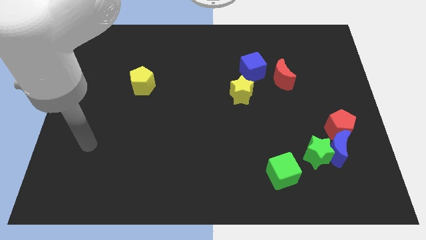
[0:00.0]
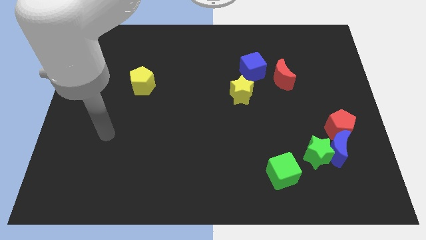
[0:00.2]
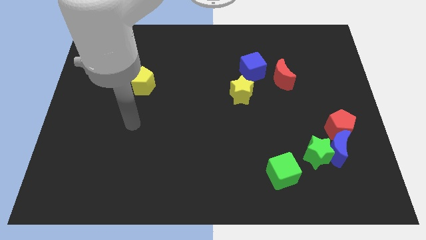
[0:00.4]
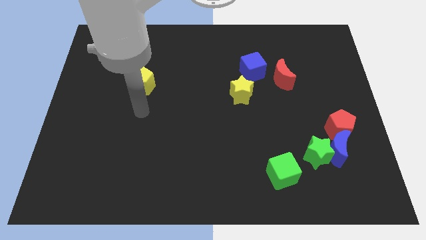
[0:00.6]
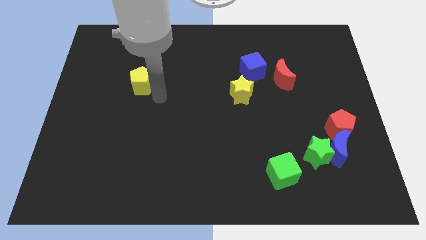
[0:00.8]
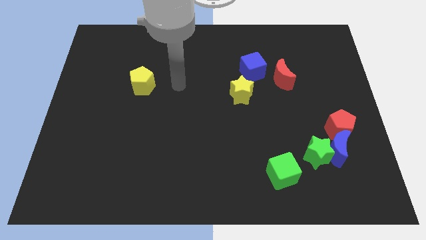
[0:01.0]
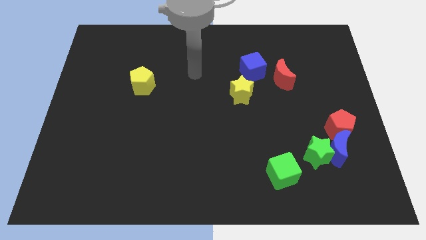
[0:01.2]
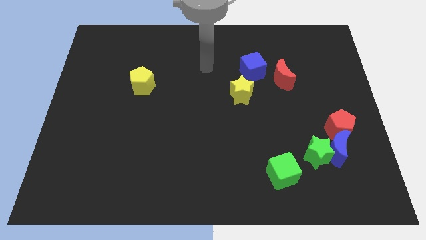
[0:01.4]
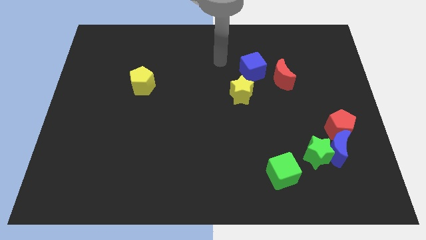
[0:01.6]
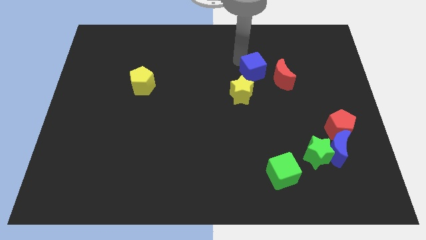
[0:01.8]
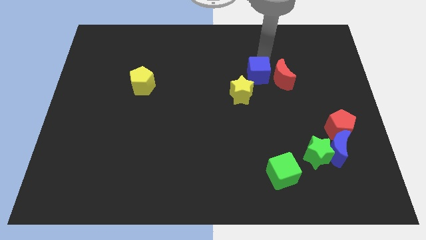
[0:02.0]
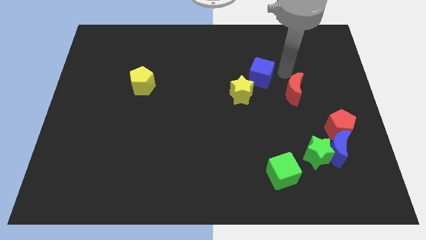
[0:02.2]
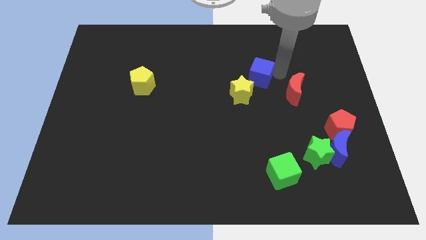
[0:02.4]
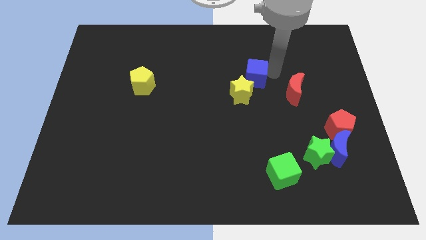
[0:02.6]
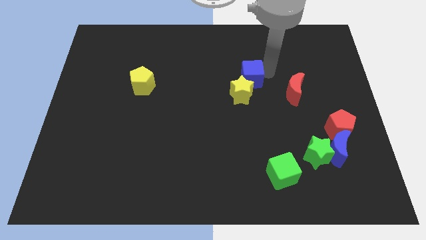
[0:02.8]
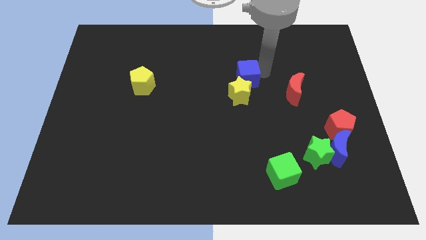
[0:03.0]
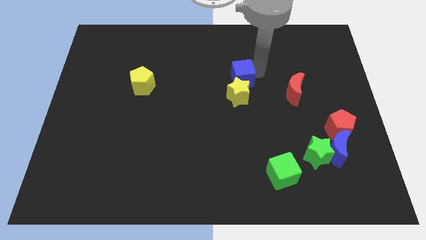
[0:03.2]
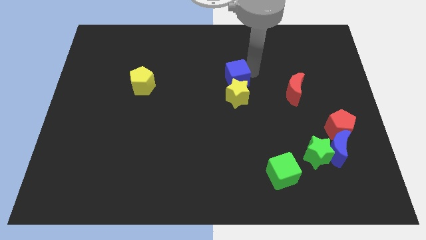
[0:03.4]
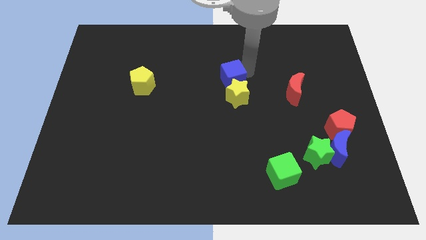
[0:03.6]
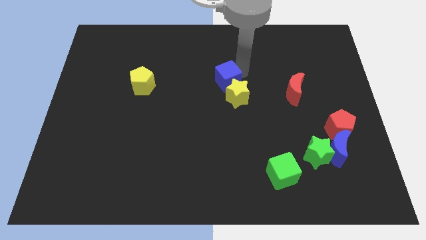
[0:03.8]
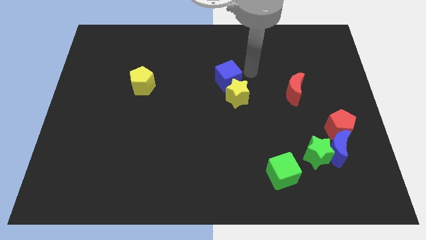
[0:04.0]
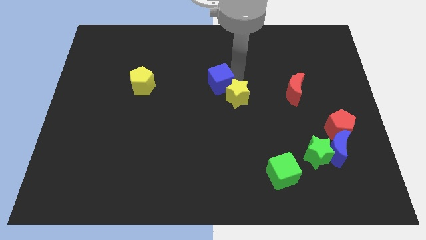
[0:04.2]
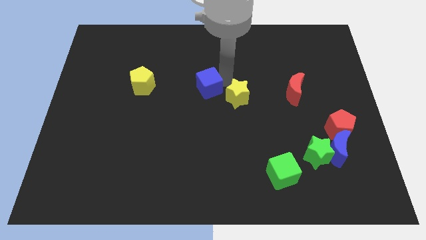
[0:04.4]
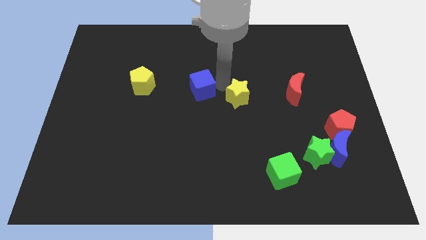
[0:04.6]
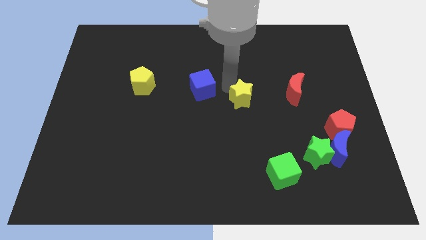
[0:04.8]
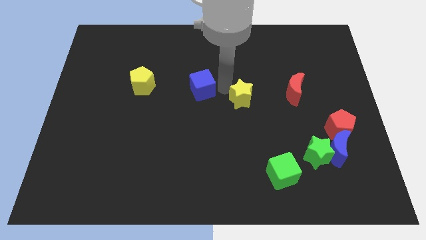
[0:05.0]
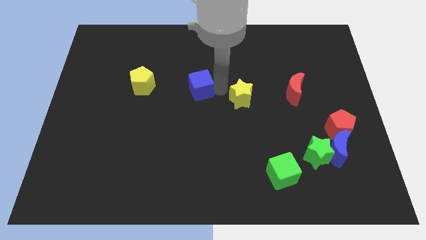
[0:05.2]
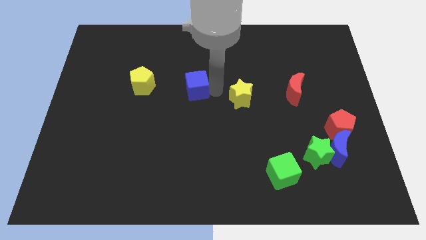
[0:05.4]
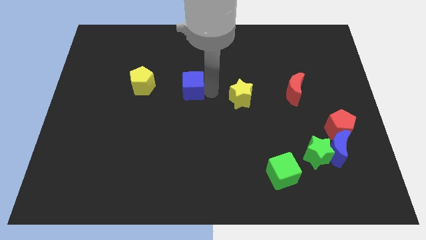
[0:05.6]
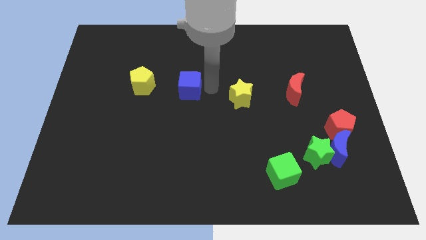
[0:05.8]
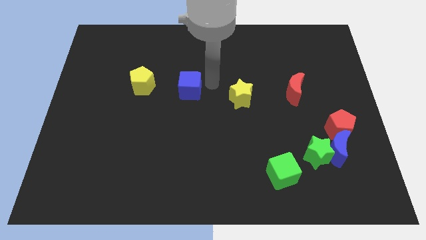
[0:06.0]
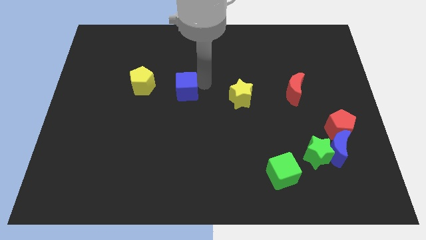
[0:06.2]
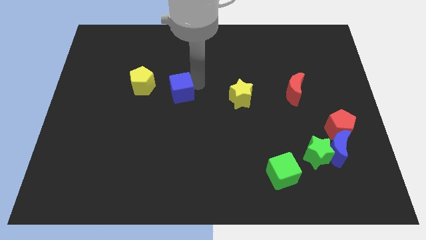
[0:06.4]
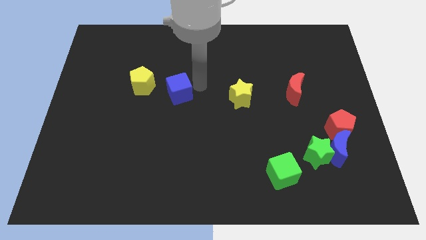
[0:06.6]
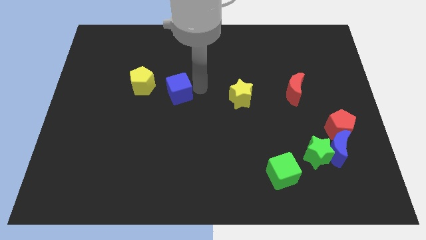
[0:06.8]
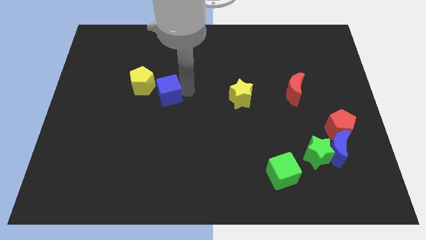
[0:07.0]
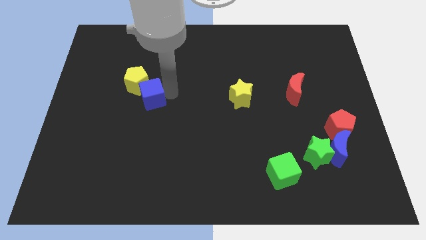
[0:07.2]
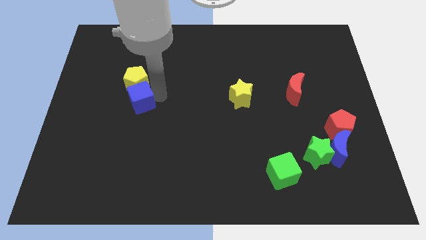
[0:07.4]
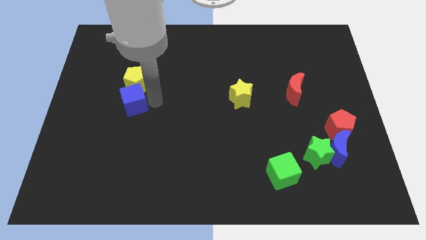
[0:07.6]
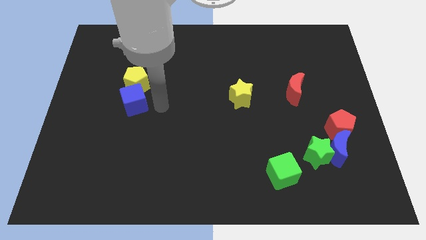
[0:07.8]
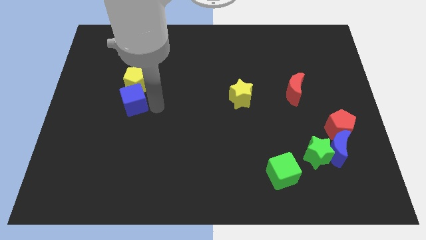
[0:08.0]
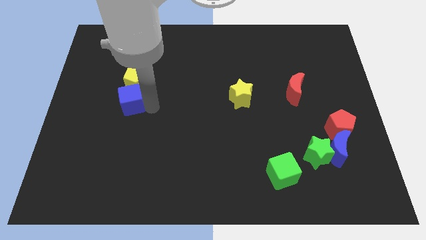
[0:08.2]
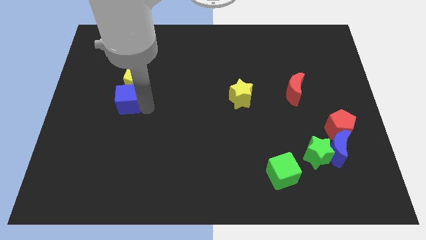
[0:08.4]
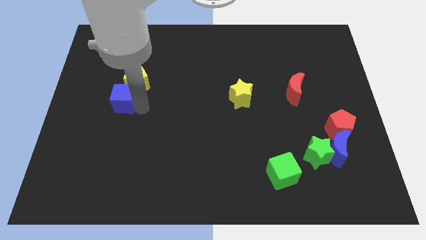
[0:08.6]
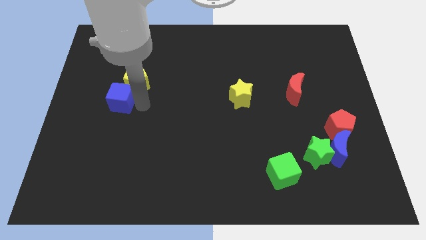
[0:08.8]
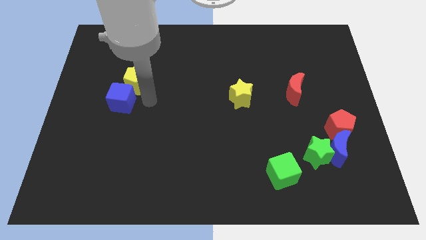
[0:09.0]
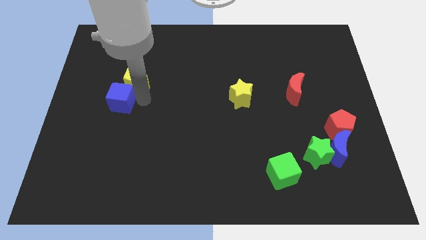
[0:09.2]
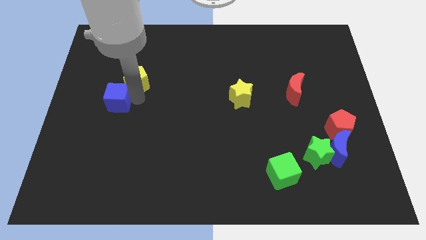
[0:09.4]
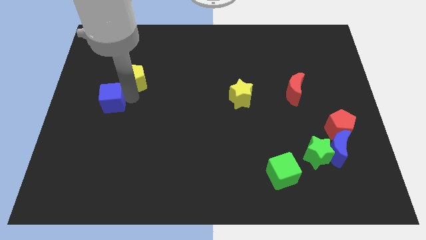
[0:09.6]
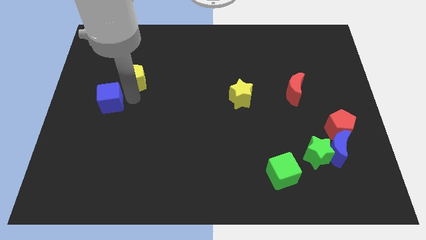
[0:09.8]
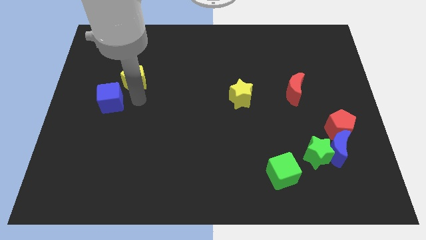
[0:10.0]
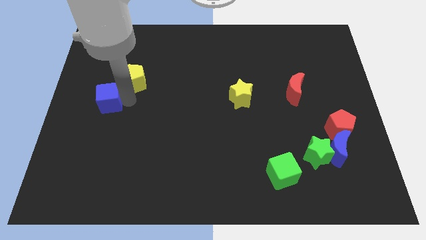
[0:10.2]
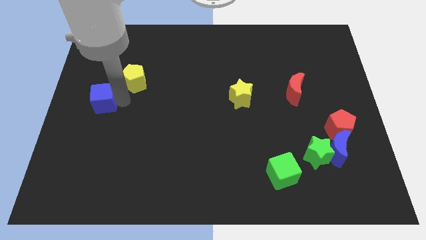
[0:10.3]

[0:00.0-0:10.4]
slide the blue cube to the center left

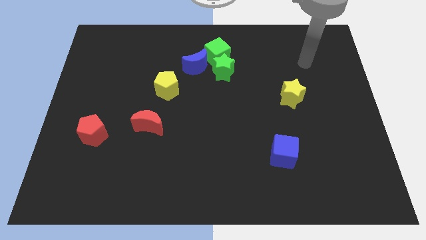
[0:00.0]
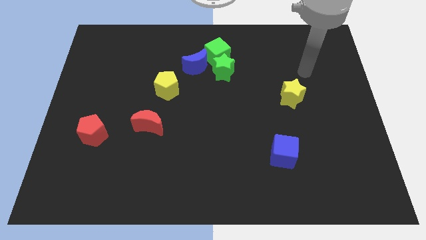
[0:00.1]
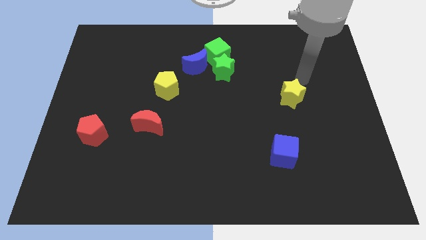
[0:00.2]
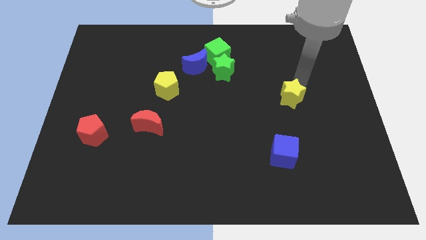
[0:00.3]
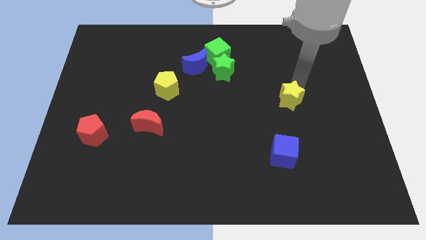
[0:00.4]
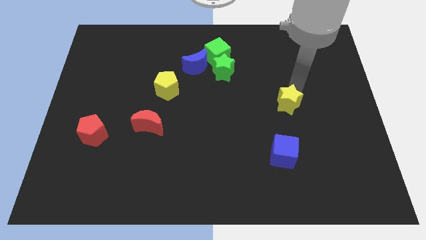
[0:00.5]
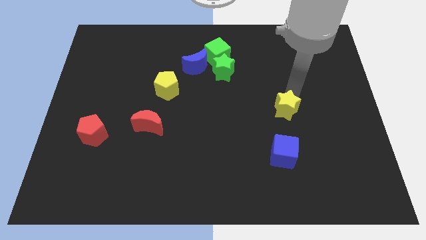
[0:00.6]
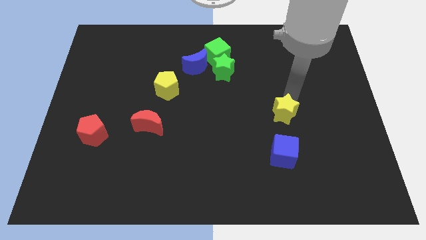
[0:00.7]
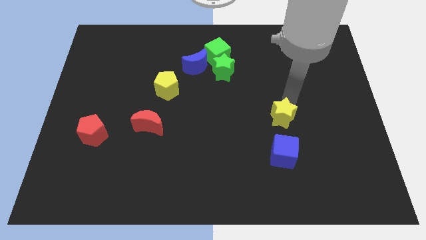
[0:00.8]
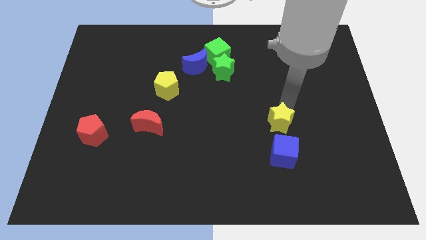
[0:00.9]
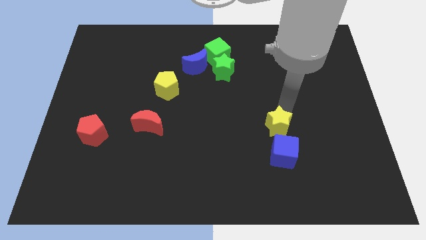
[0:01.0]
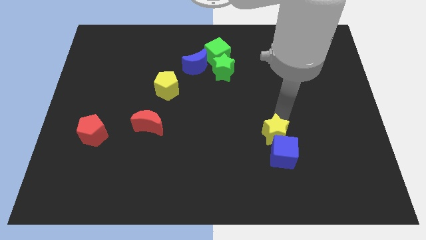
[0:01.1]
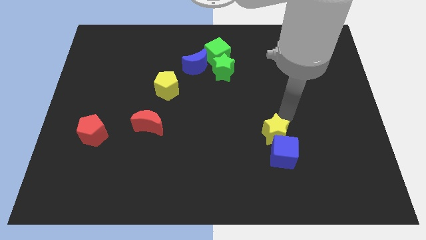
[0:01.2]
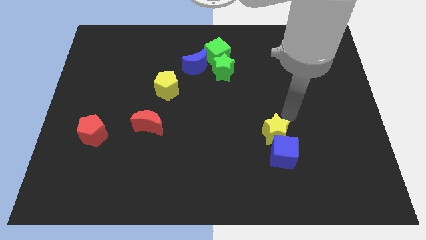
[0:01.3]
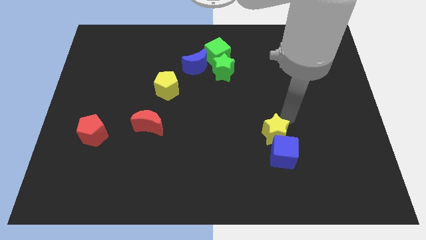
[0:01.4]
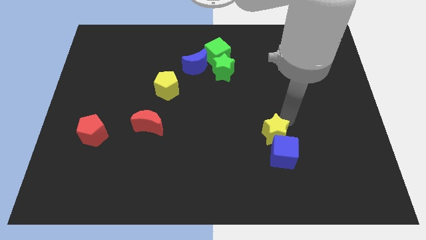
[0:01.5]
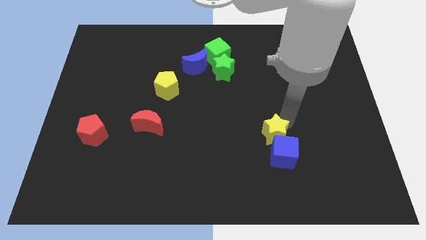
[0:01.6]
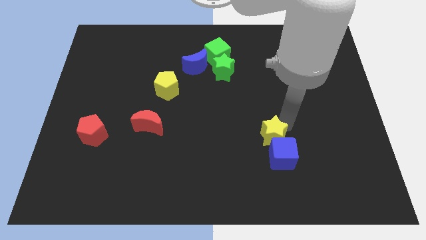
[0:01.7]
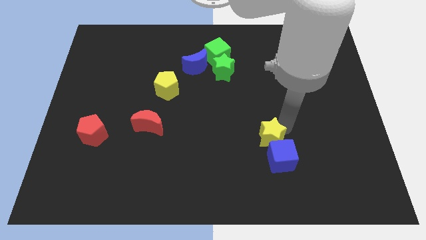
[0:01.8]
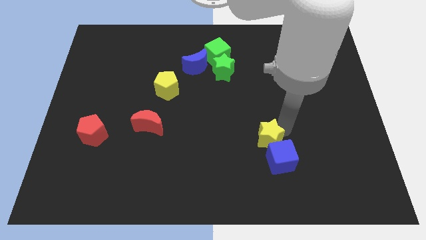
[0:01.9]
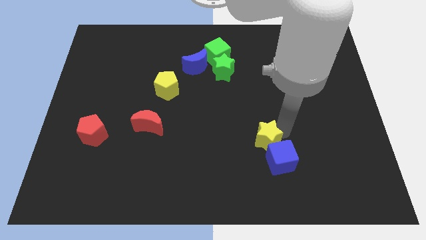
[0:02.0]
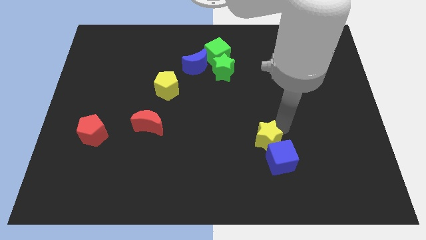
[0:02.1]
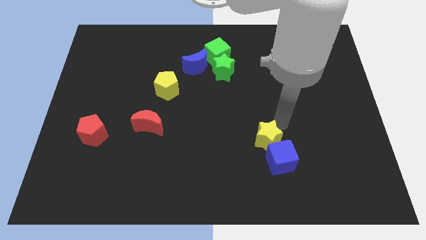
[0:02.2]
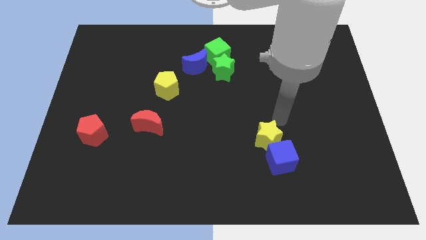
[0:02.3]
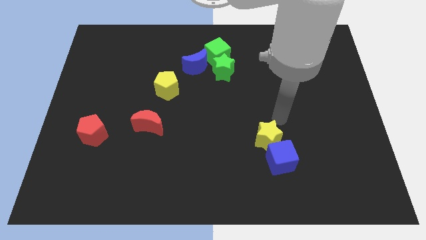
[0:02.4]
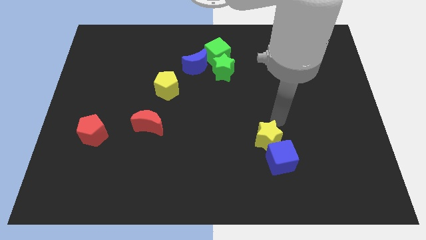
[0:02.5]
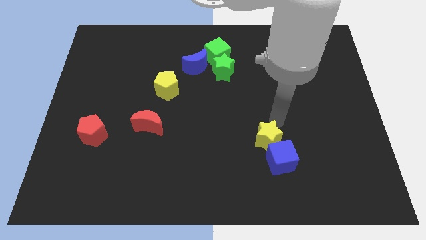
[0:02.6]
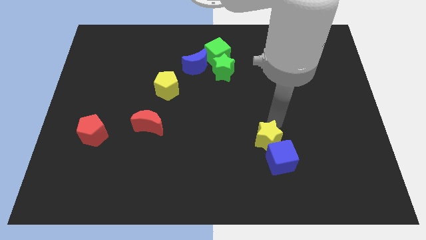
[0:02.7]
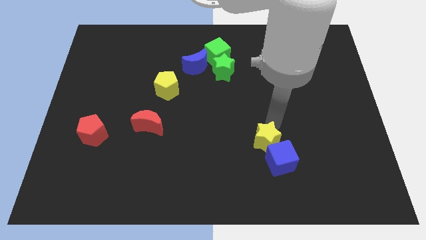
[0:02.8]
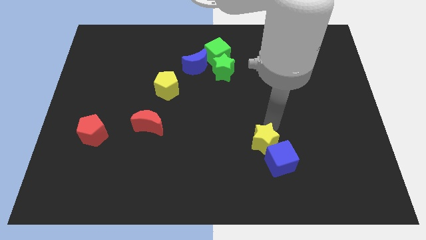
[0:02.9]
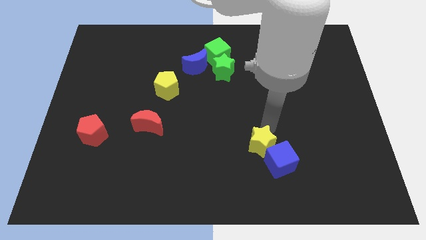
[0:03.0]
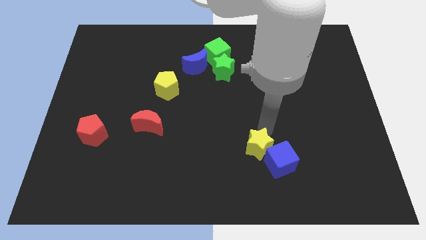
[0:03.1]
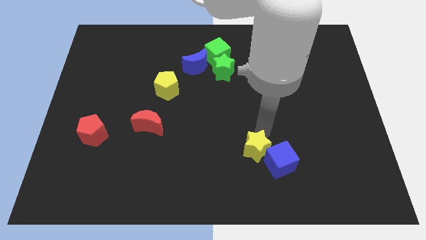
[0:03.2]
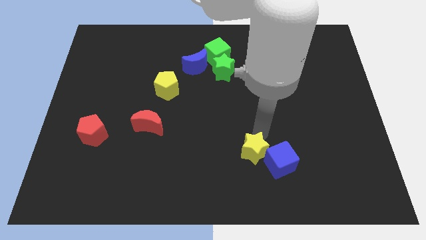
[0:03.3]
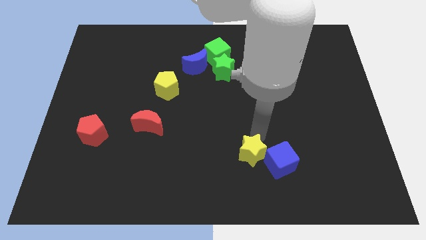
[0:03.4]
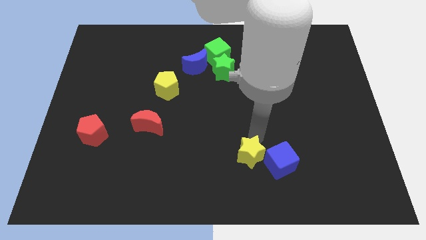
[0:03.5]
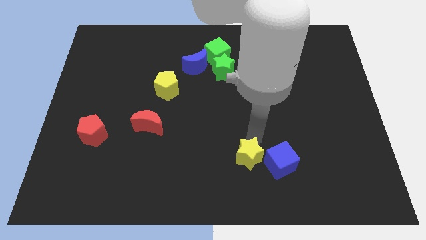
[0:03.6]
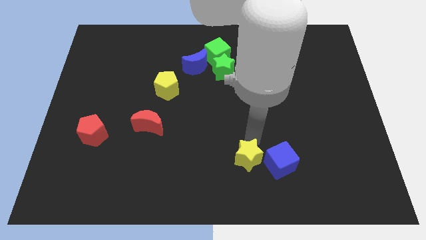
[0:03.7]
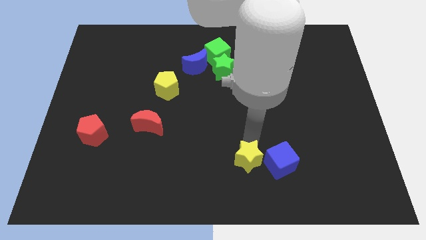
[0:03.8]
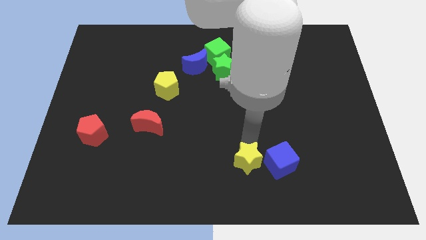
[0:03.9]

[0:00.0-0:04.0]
put the yellow star to the bottom side
